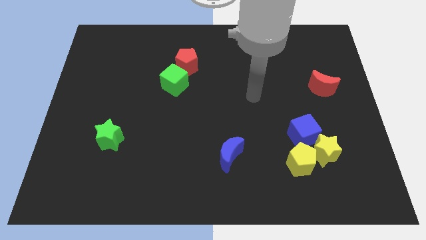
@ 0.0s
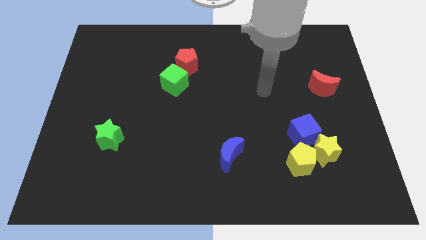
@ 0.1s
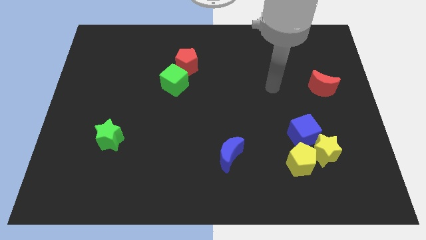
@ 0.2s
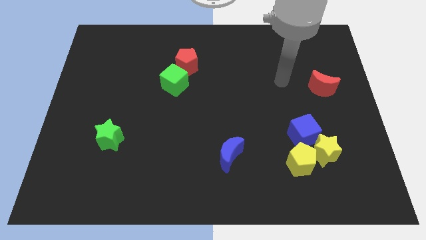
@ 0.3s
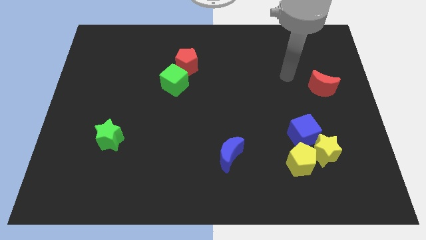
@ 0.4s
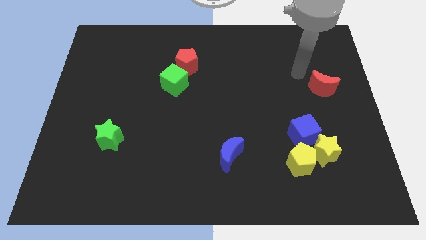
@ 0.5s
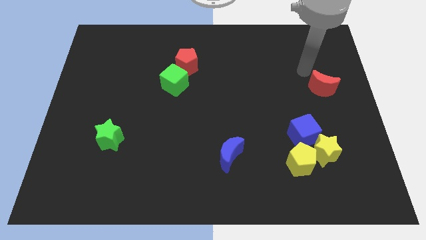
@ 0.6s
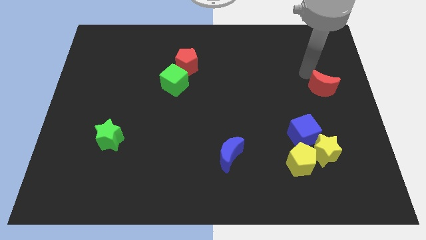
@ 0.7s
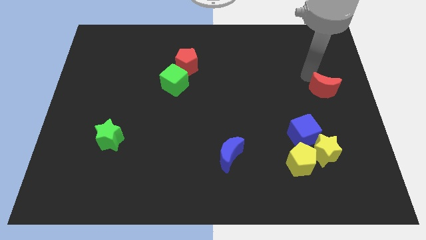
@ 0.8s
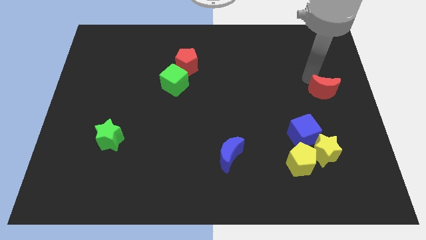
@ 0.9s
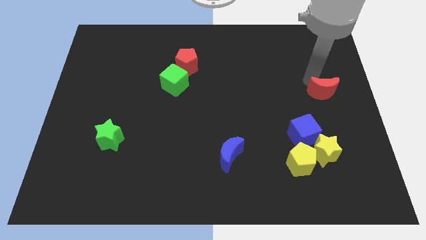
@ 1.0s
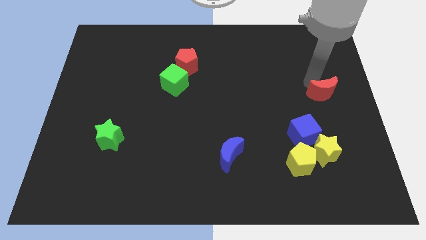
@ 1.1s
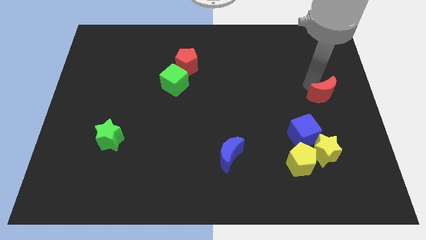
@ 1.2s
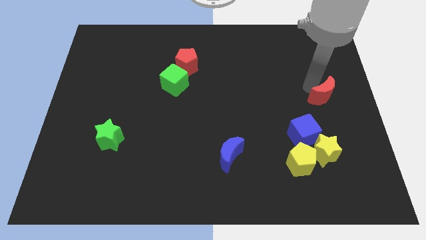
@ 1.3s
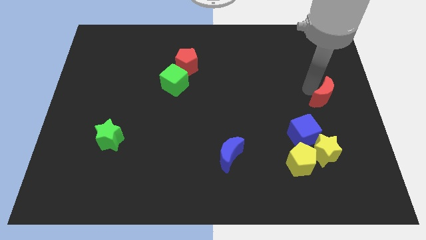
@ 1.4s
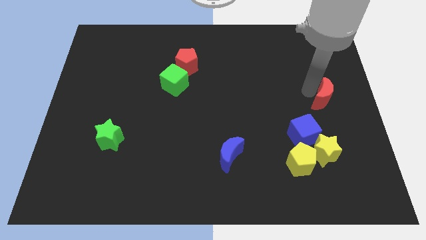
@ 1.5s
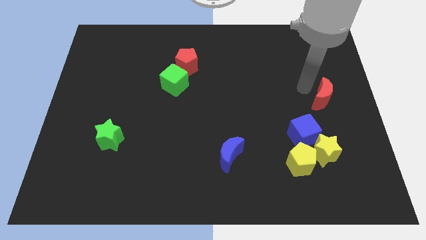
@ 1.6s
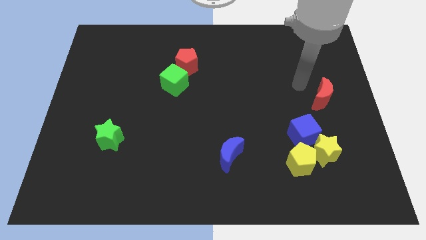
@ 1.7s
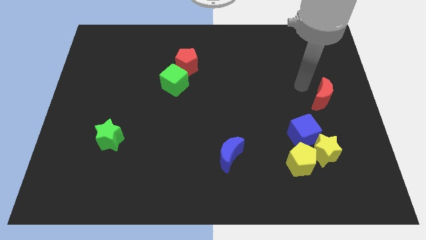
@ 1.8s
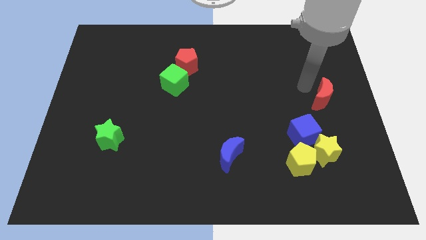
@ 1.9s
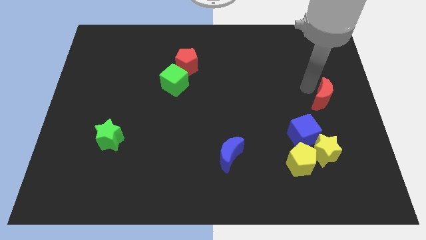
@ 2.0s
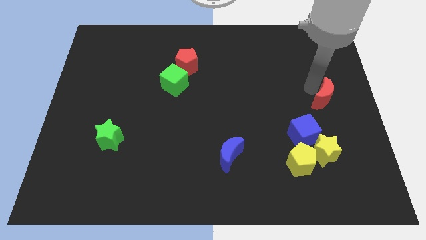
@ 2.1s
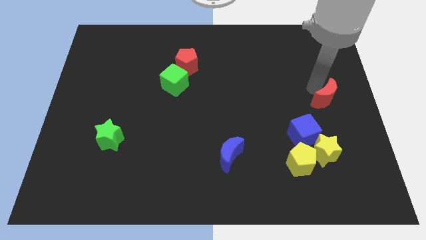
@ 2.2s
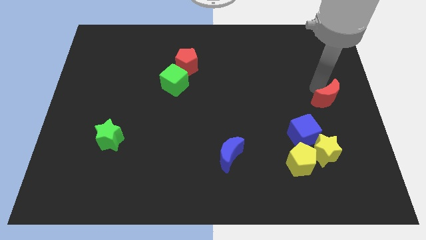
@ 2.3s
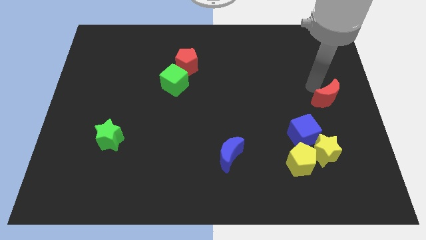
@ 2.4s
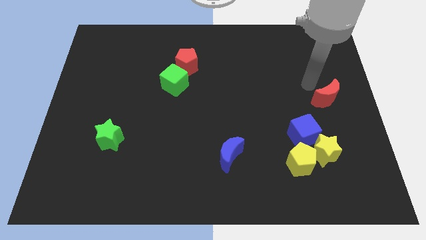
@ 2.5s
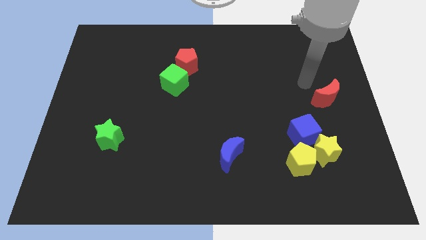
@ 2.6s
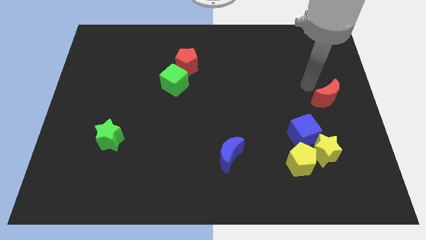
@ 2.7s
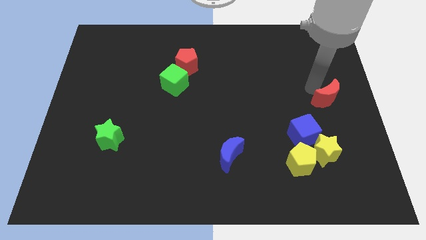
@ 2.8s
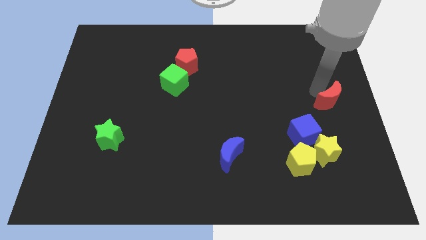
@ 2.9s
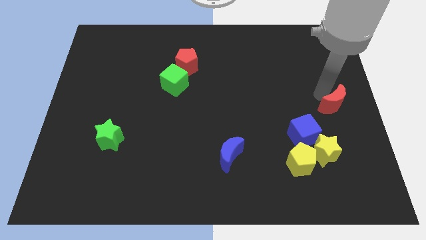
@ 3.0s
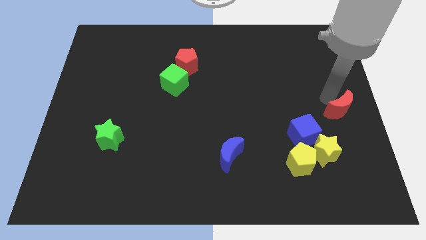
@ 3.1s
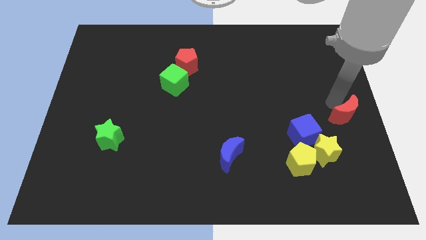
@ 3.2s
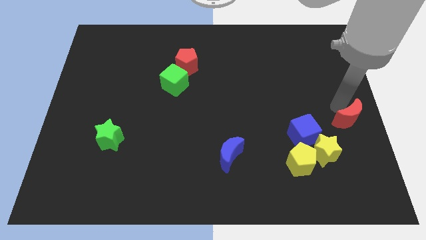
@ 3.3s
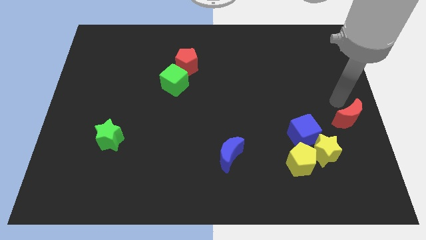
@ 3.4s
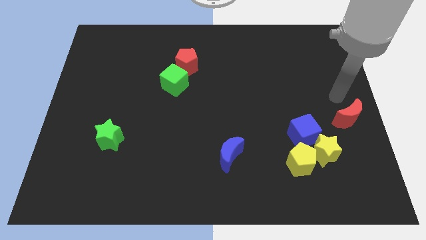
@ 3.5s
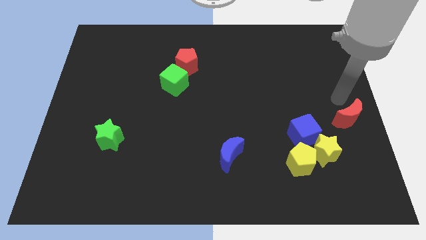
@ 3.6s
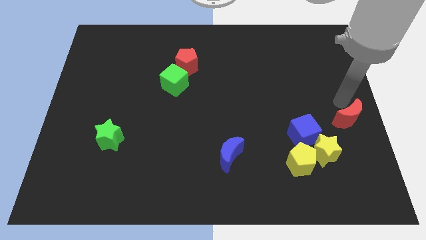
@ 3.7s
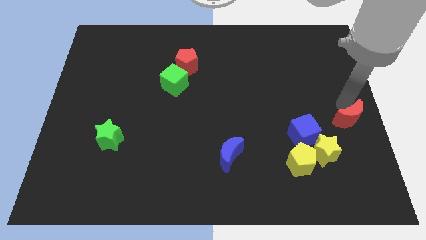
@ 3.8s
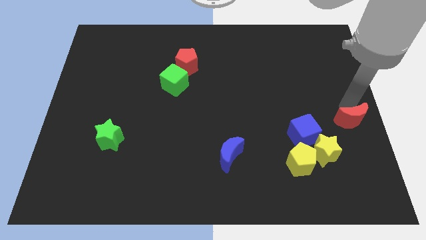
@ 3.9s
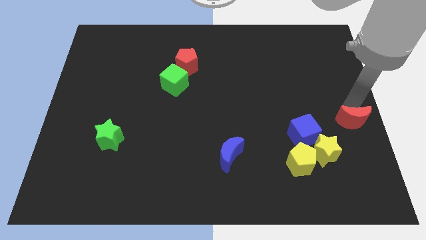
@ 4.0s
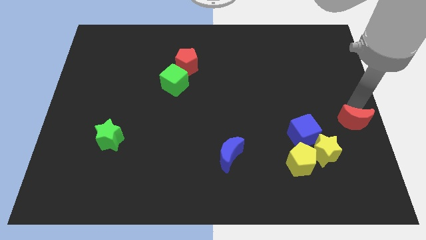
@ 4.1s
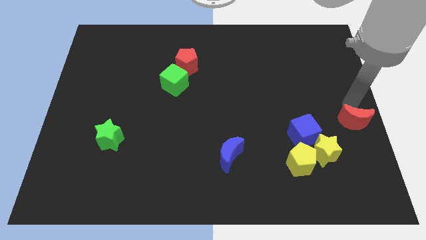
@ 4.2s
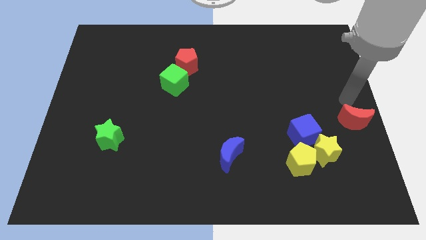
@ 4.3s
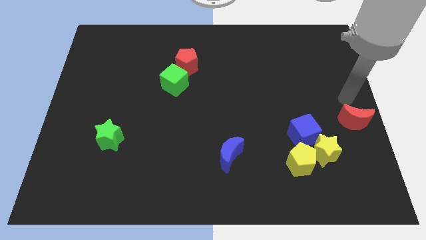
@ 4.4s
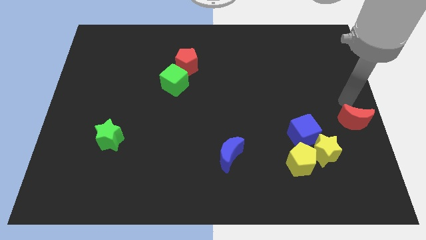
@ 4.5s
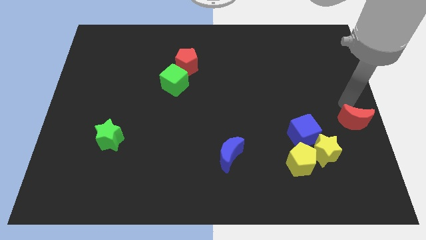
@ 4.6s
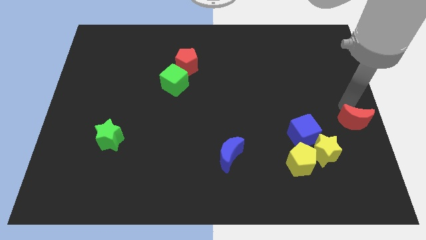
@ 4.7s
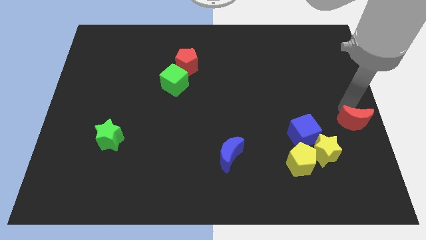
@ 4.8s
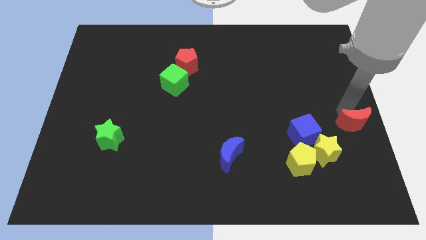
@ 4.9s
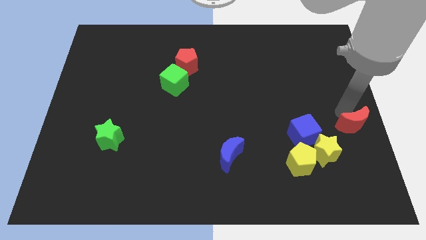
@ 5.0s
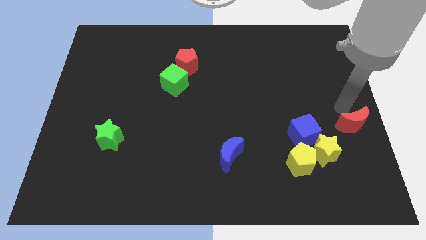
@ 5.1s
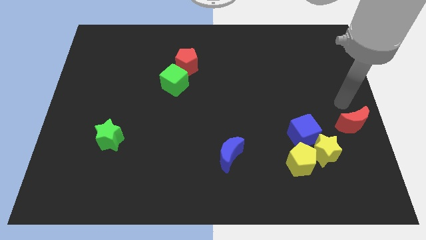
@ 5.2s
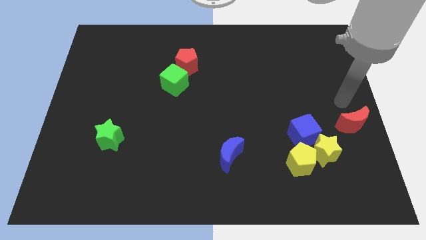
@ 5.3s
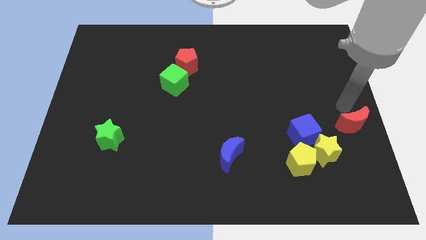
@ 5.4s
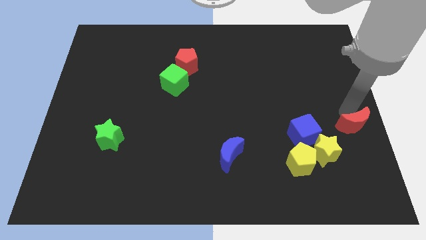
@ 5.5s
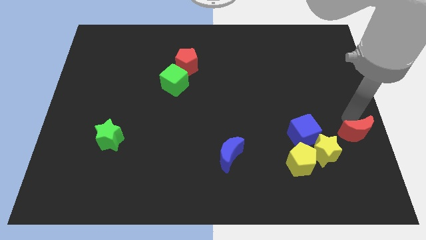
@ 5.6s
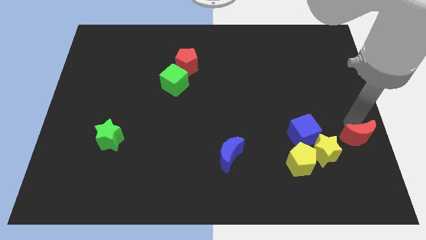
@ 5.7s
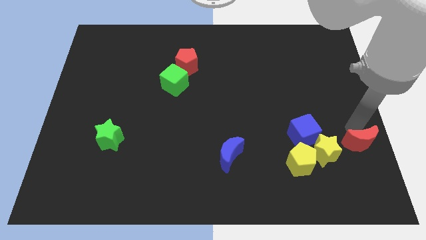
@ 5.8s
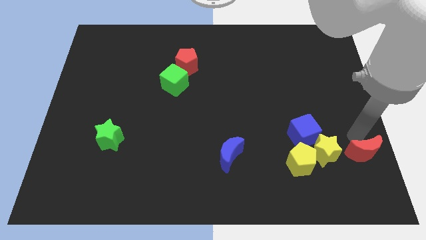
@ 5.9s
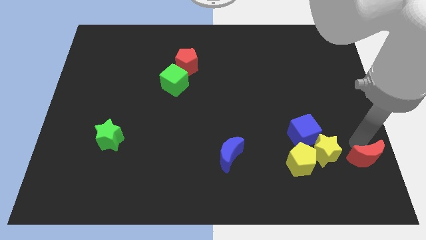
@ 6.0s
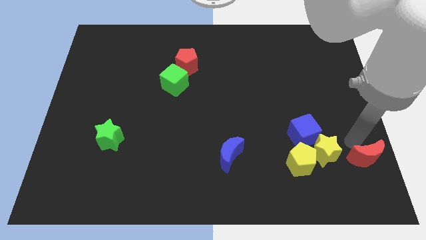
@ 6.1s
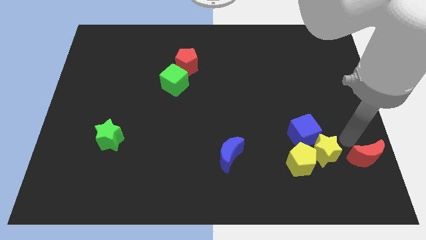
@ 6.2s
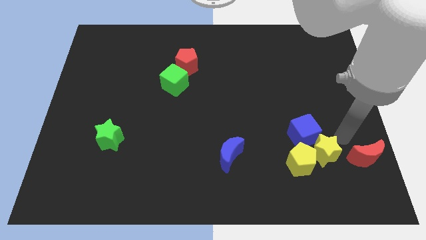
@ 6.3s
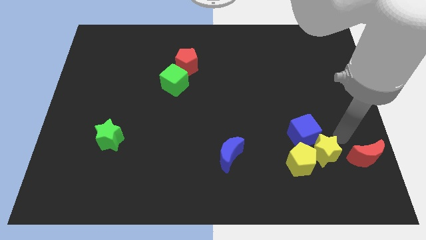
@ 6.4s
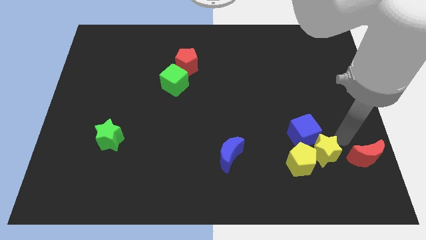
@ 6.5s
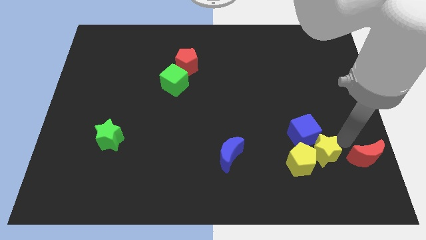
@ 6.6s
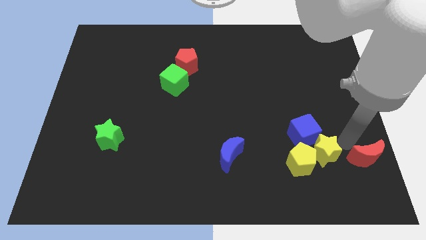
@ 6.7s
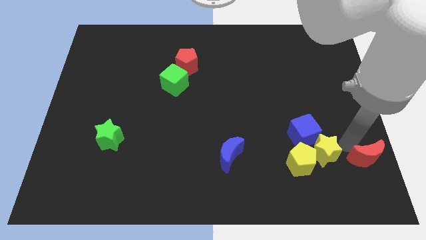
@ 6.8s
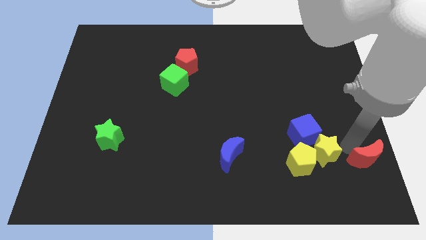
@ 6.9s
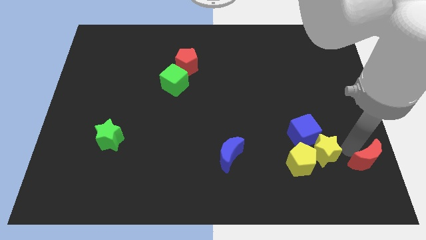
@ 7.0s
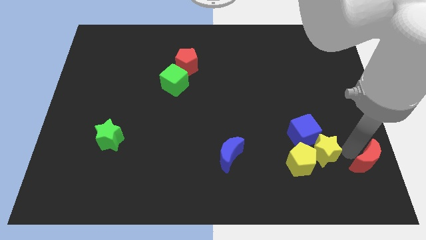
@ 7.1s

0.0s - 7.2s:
slide the red moon to the bottom right of the board

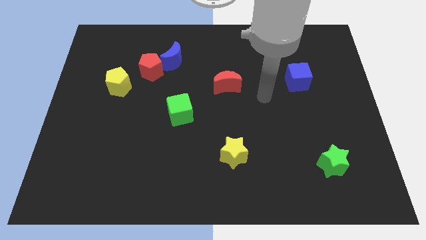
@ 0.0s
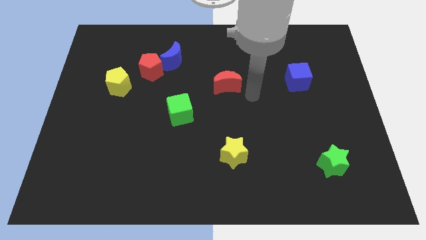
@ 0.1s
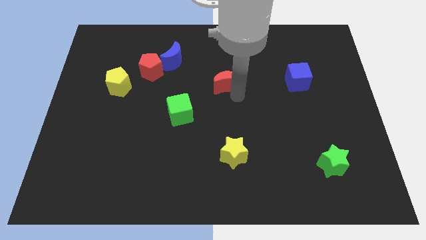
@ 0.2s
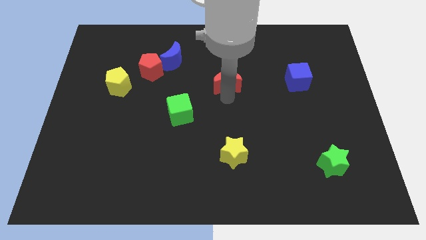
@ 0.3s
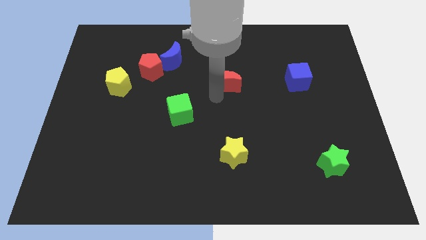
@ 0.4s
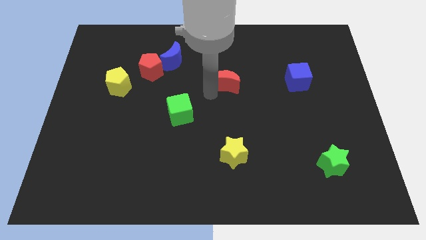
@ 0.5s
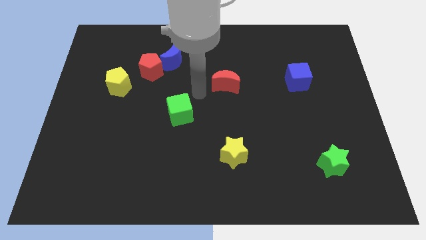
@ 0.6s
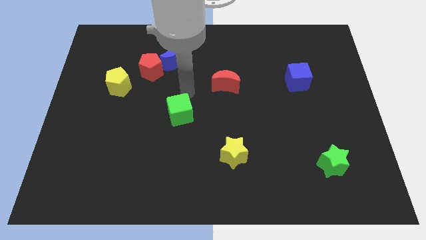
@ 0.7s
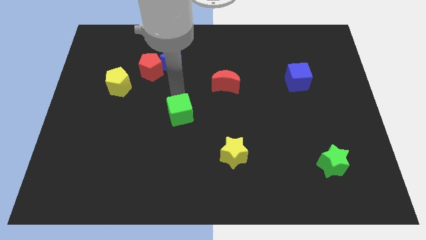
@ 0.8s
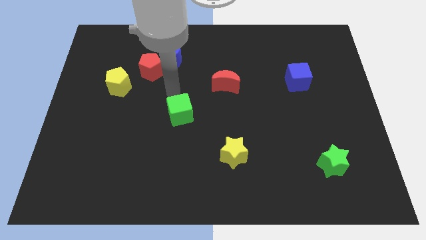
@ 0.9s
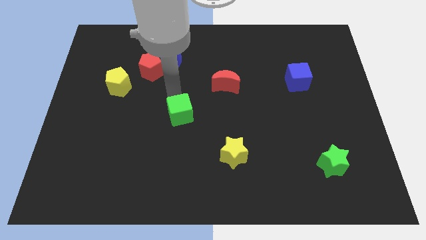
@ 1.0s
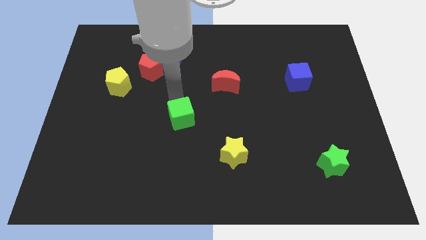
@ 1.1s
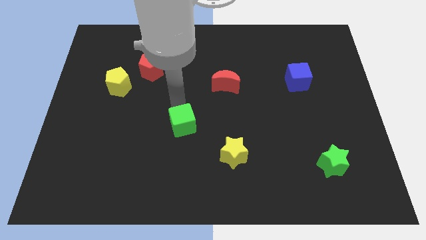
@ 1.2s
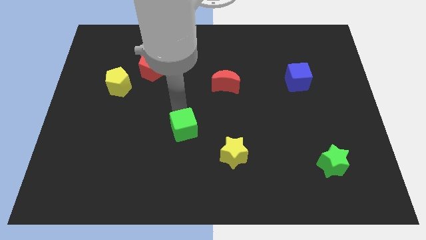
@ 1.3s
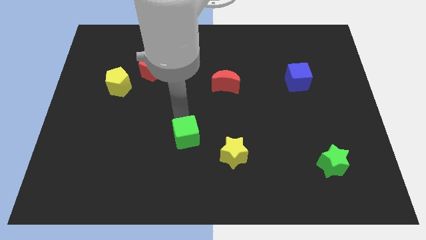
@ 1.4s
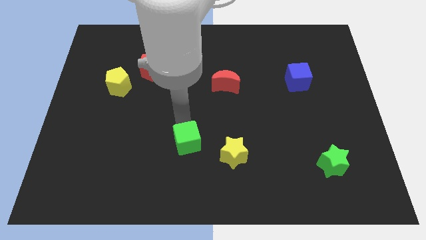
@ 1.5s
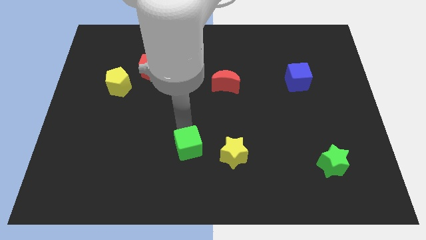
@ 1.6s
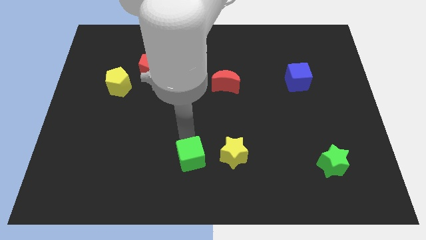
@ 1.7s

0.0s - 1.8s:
put the green cube to the bottom
